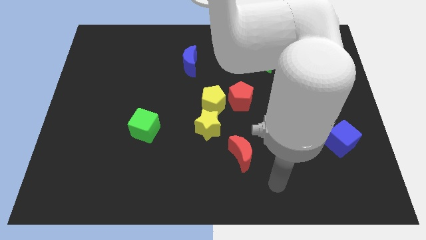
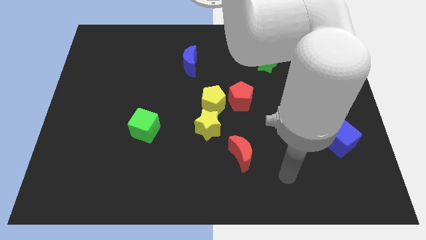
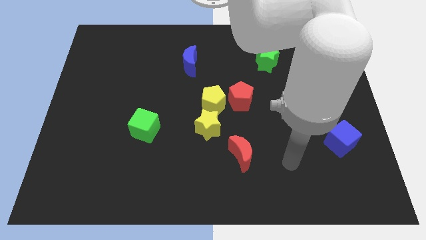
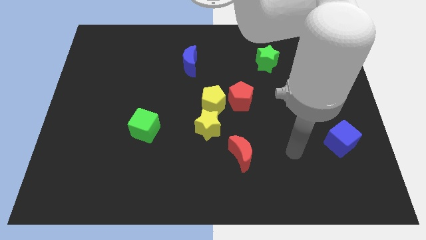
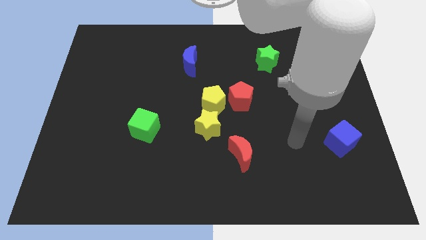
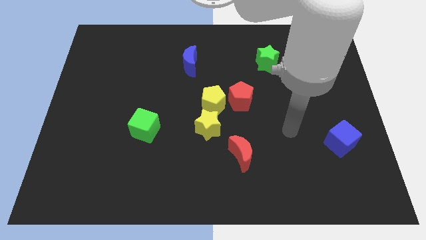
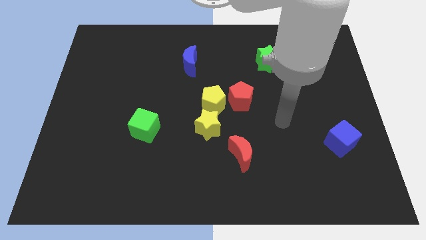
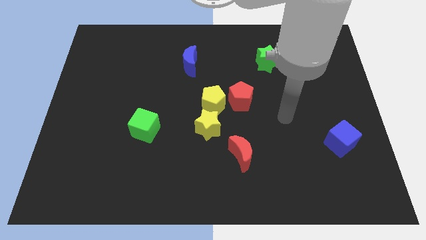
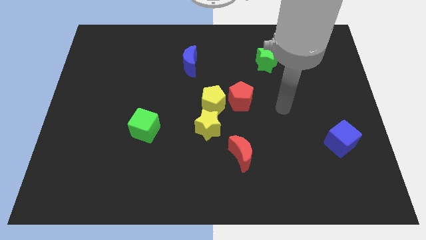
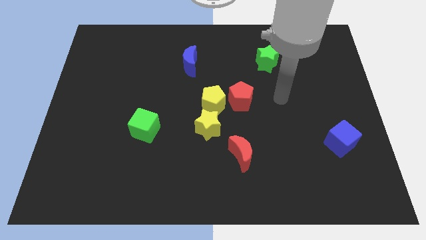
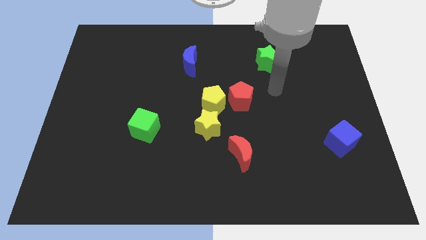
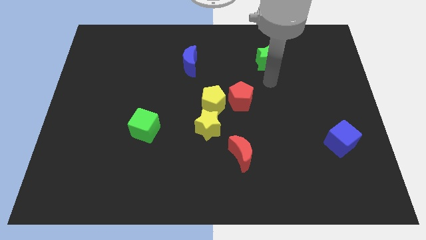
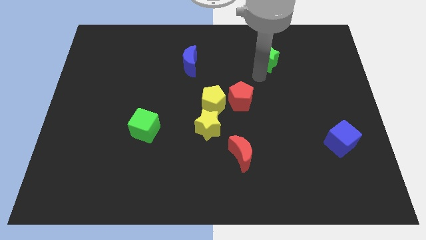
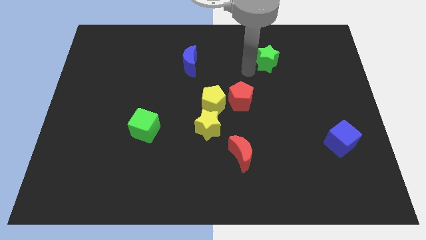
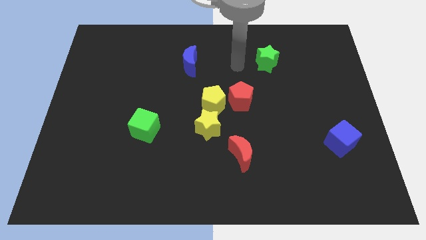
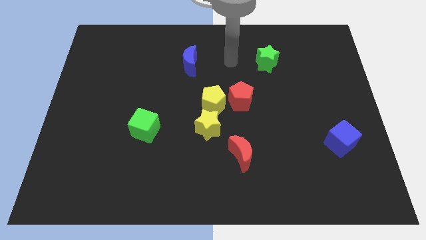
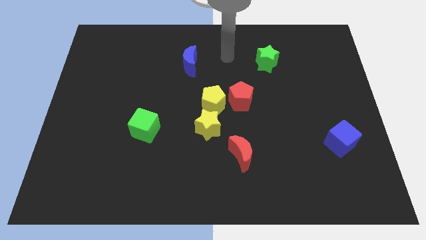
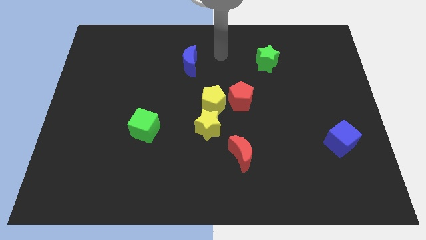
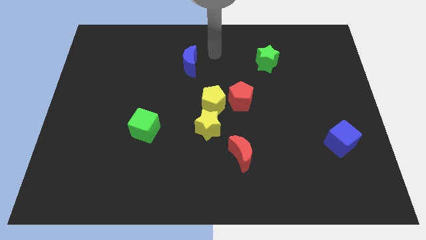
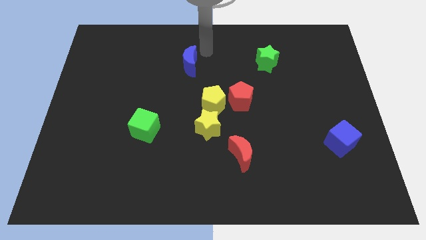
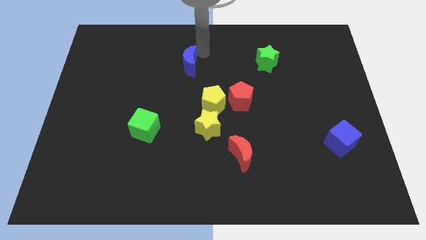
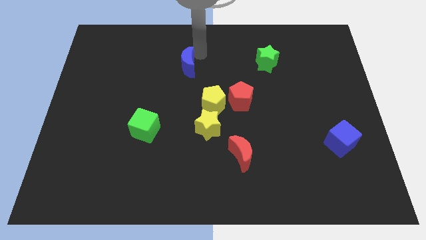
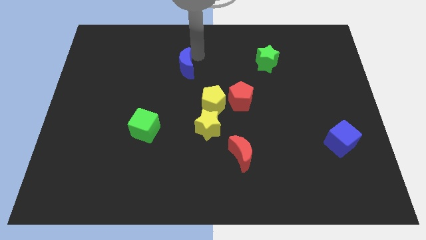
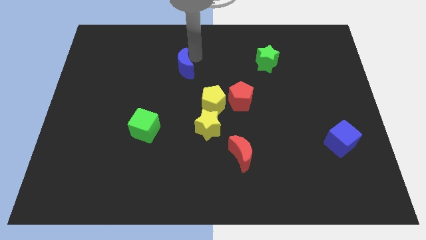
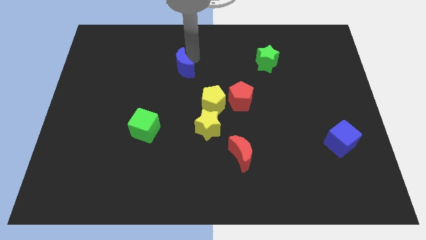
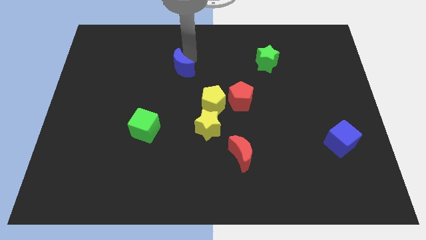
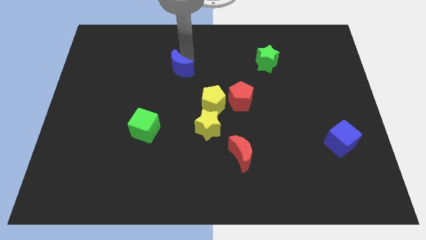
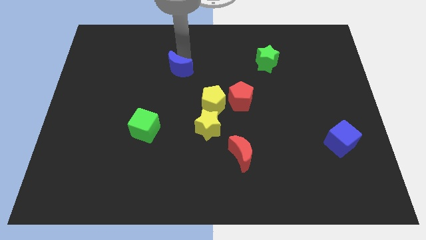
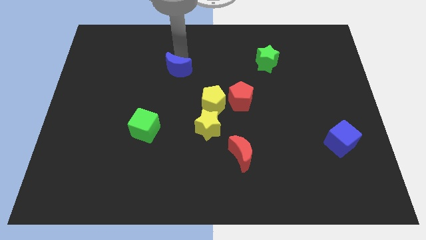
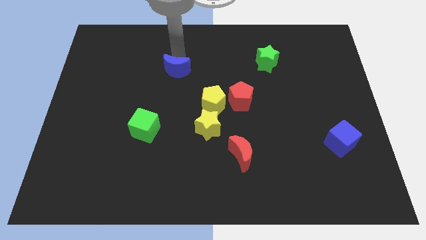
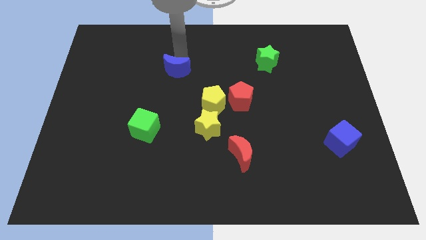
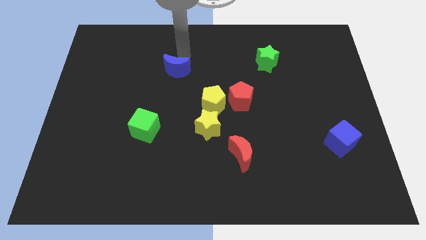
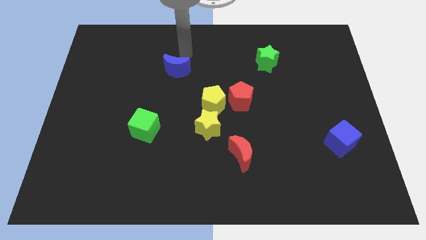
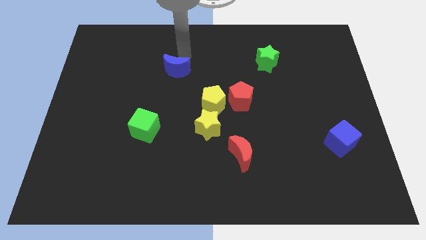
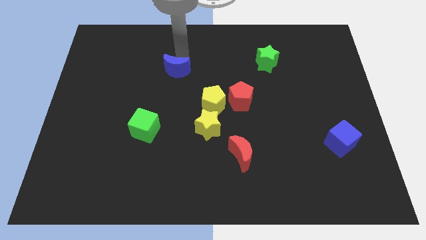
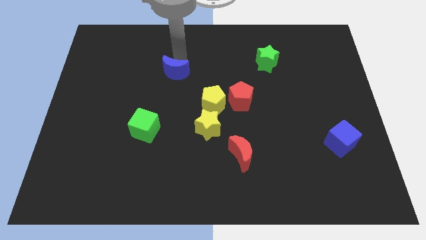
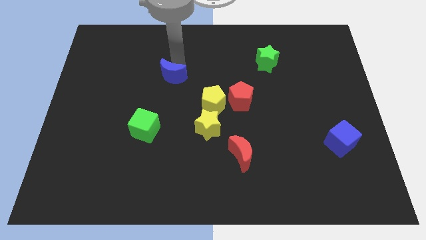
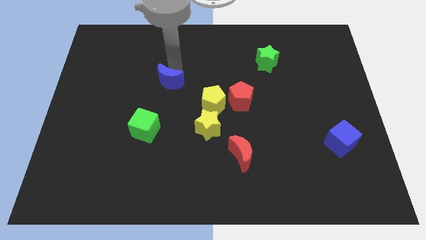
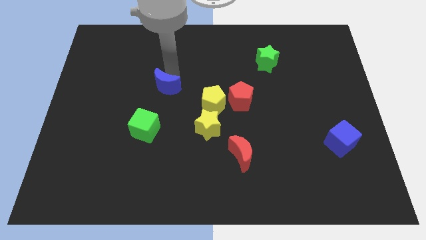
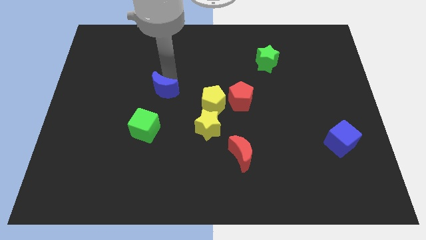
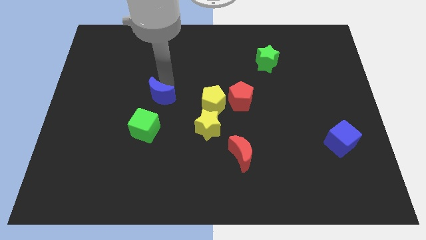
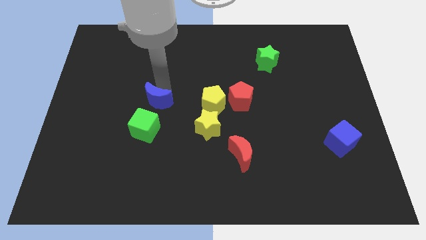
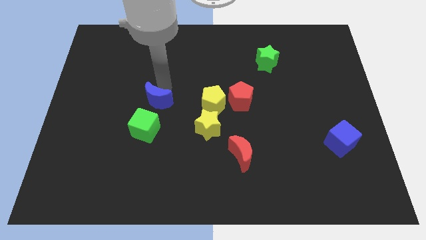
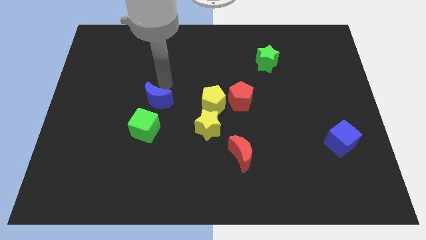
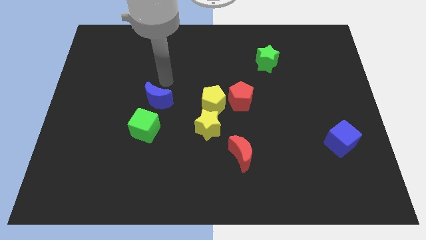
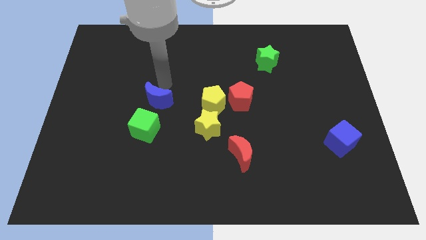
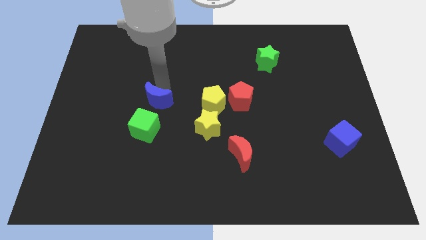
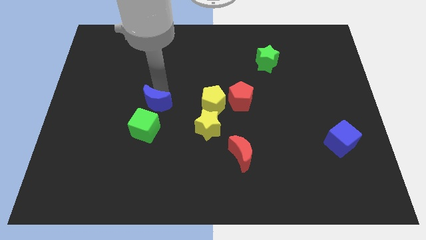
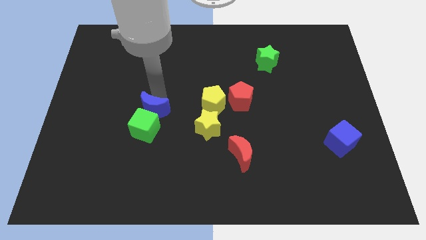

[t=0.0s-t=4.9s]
push the blue moon next to the green cube

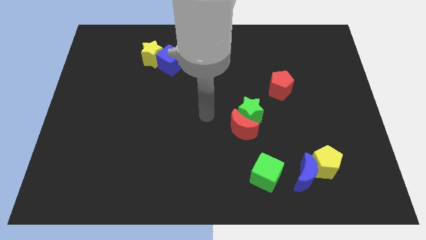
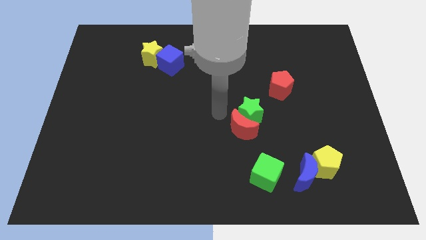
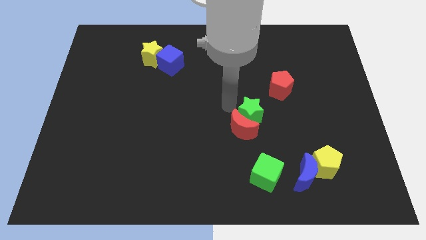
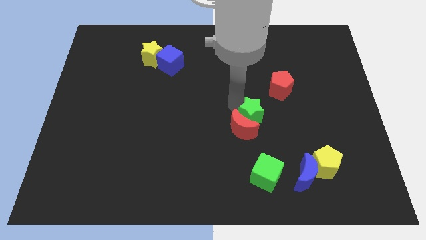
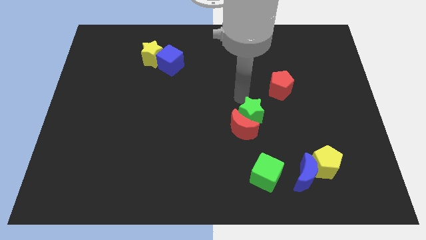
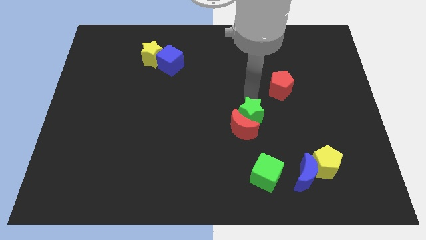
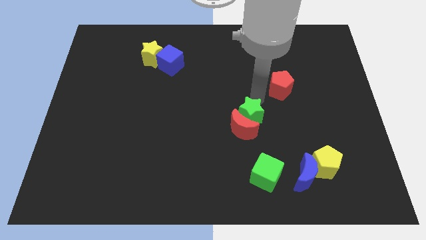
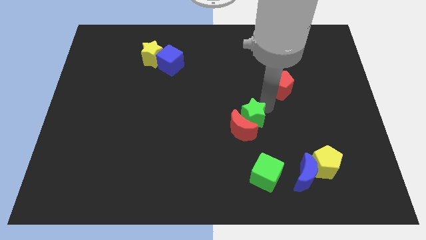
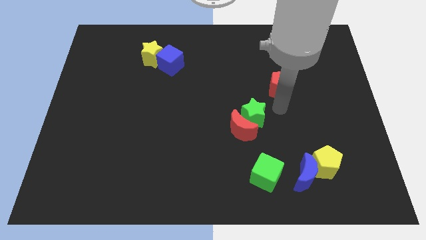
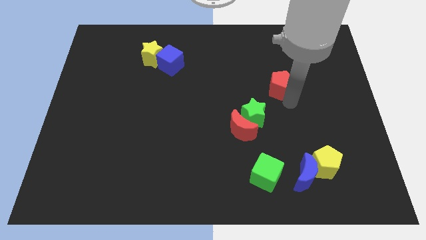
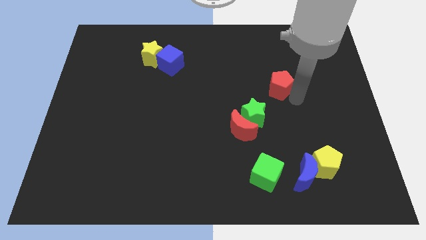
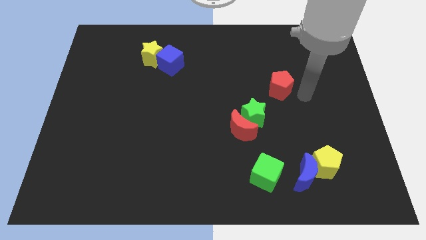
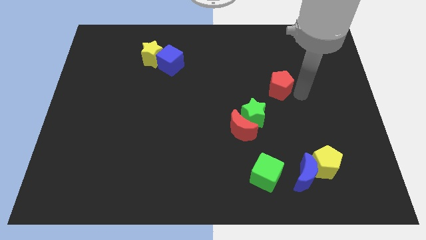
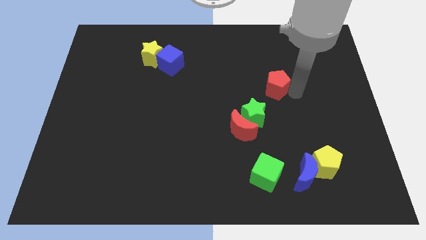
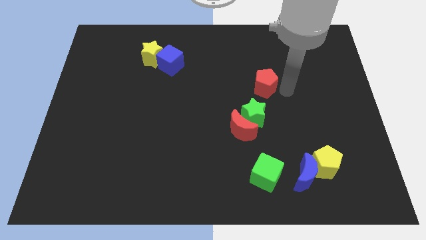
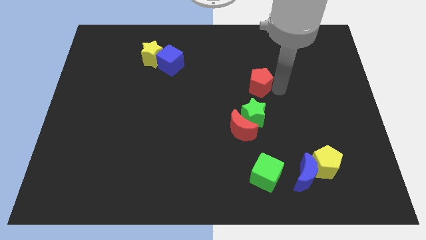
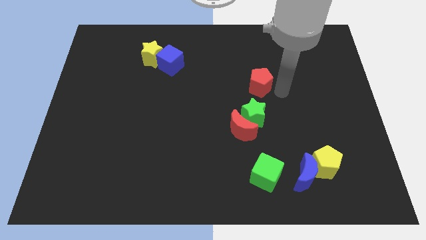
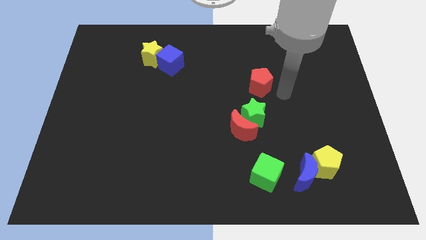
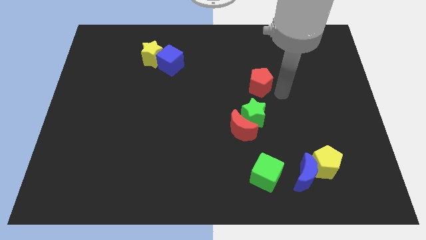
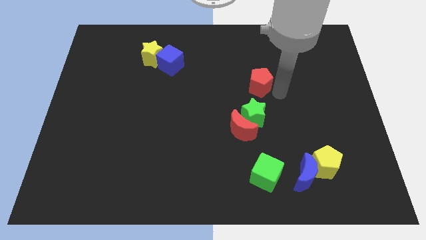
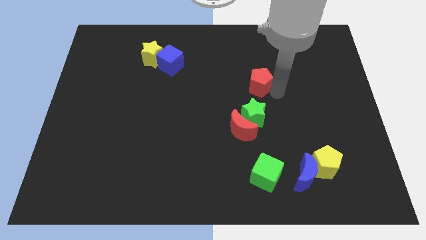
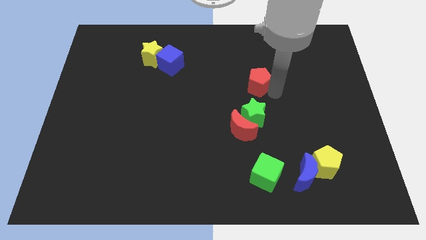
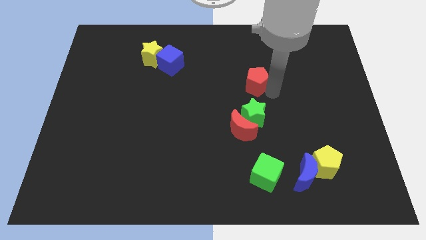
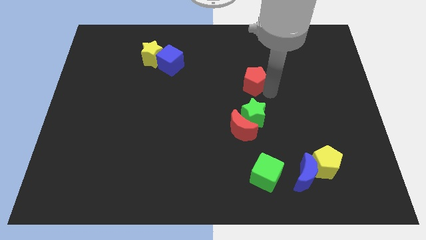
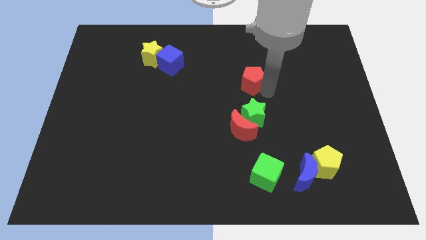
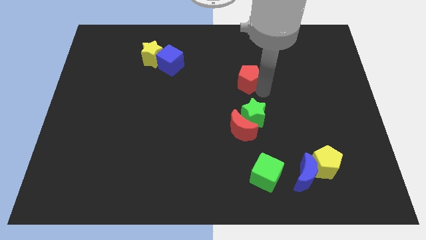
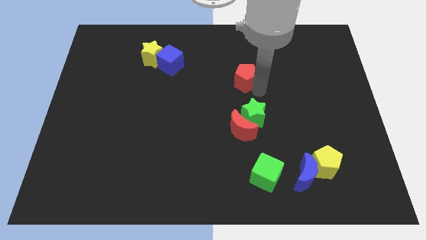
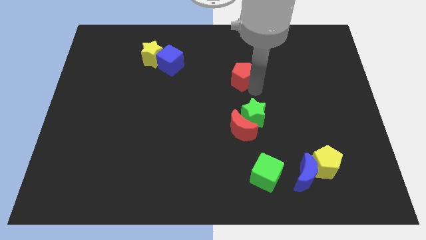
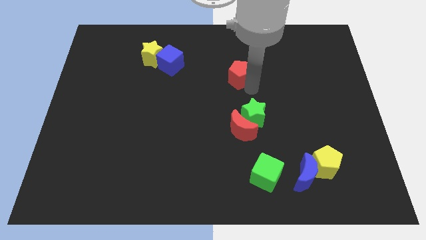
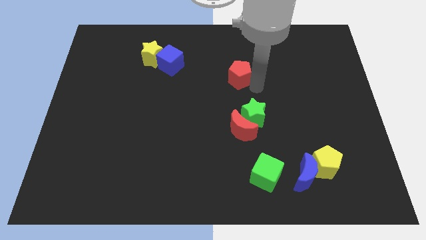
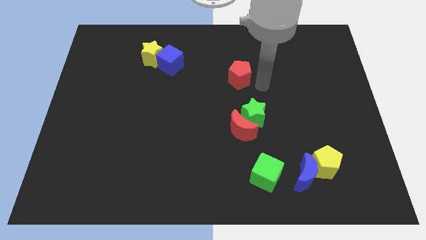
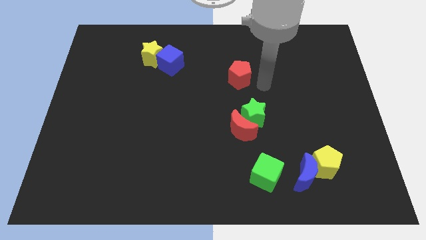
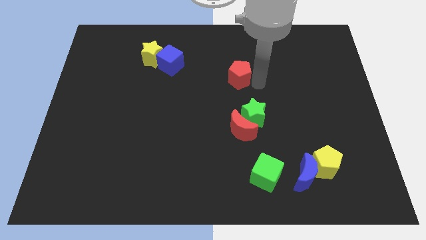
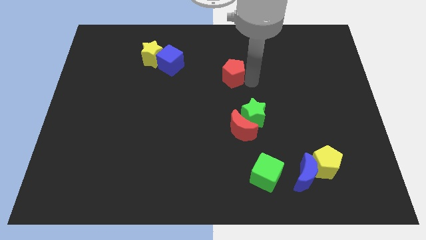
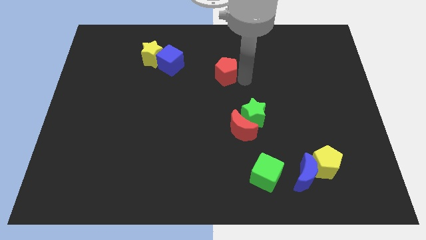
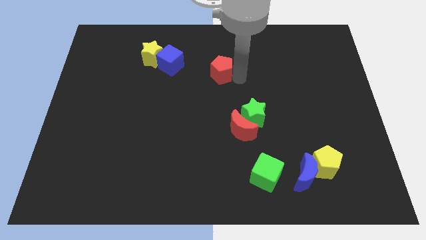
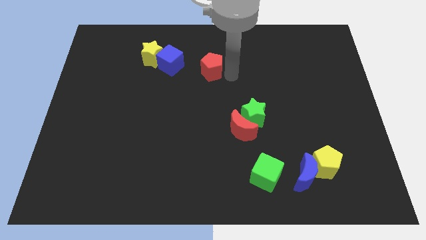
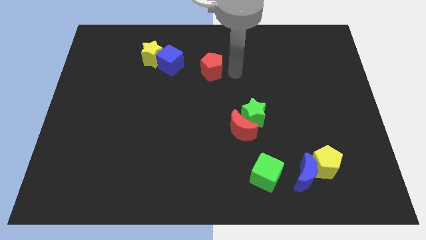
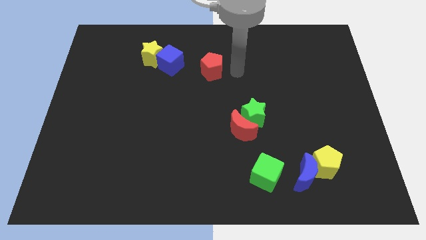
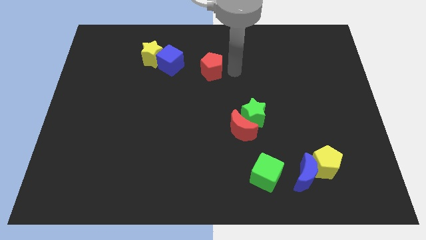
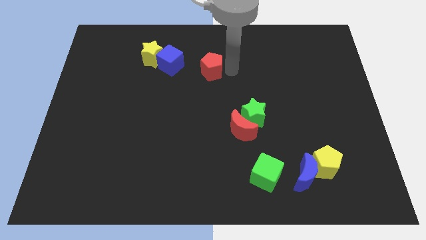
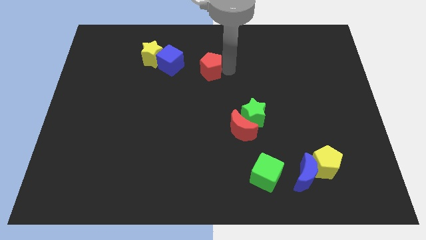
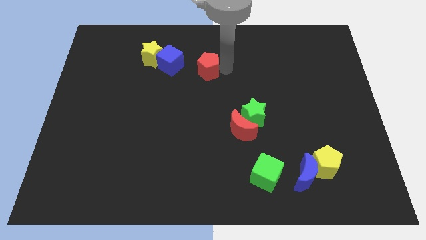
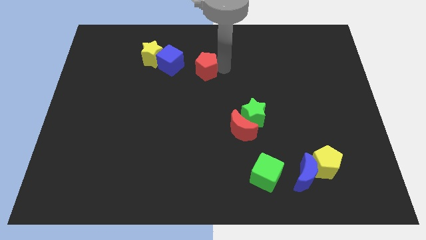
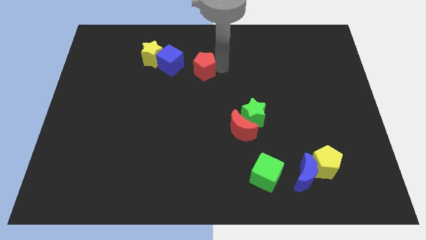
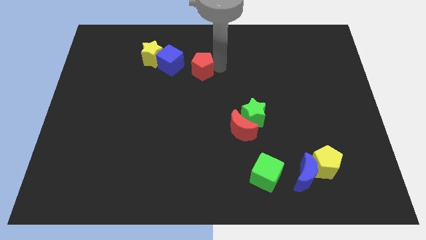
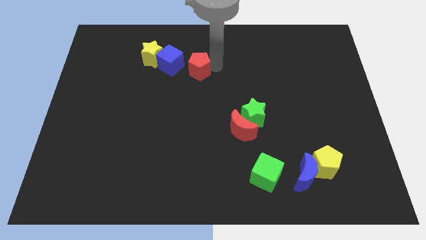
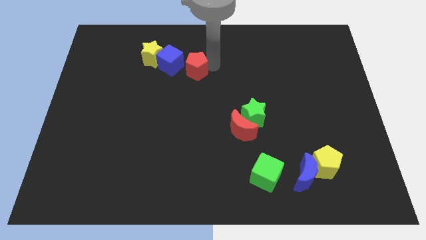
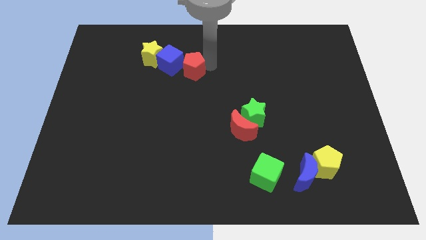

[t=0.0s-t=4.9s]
push the red pentagon next to the blue cube
